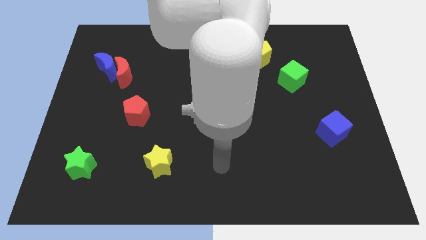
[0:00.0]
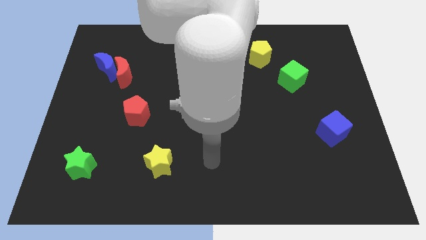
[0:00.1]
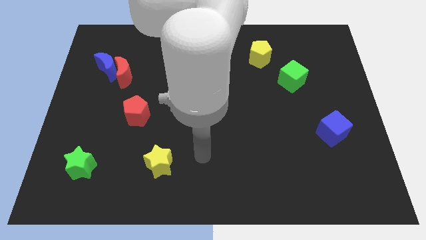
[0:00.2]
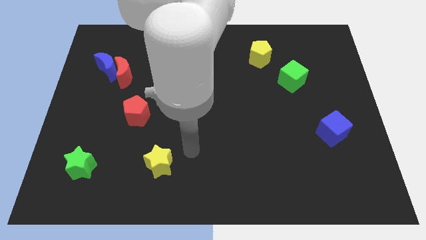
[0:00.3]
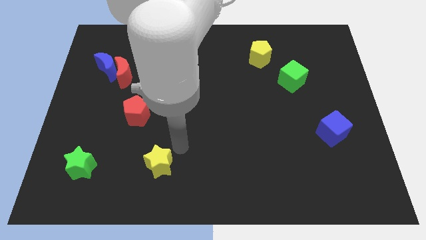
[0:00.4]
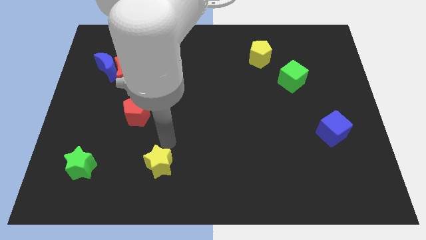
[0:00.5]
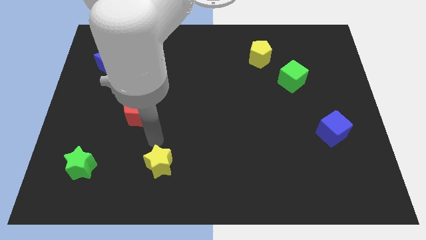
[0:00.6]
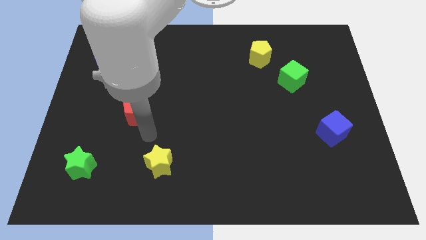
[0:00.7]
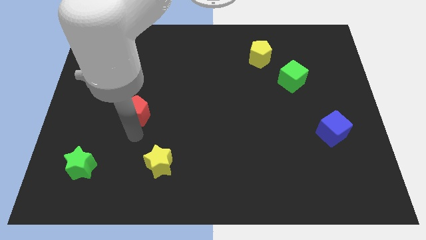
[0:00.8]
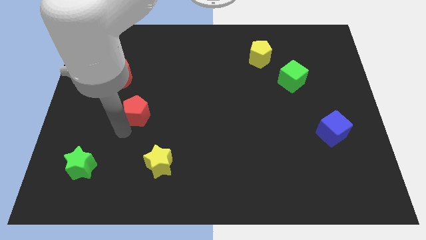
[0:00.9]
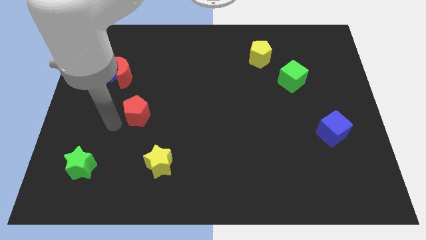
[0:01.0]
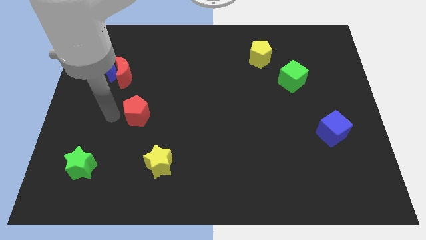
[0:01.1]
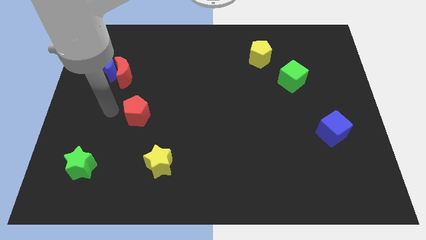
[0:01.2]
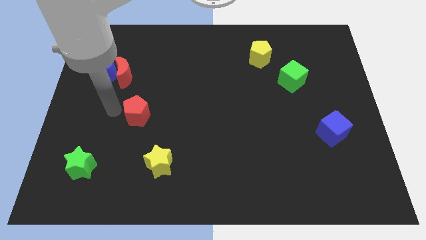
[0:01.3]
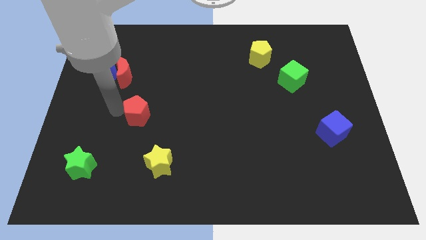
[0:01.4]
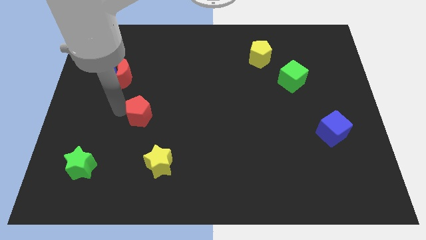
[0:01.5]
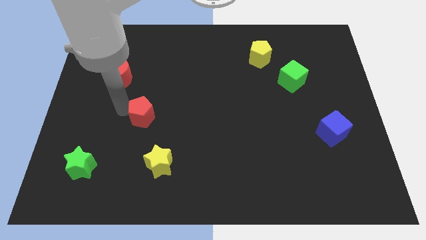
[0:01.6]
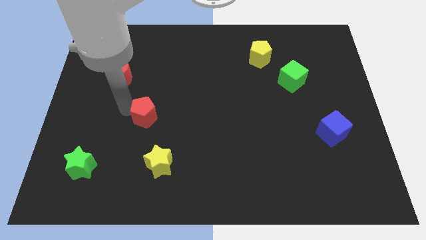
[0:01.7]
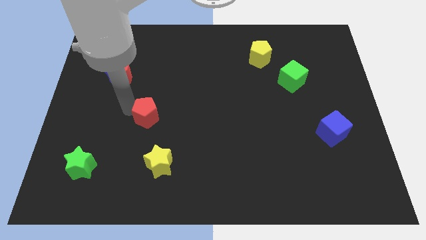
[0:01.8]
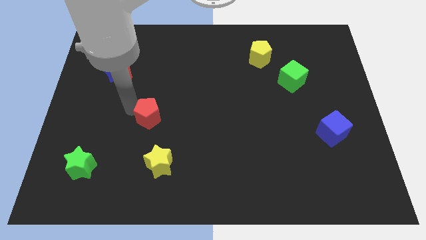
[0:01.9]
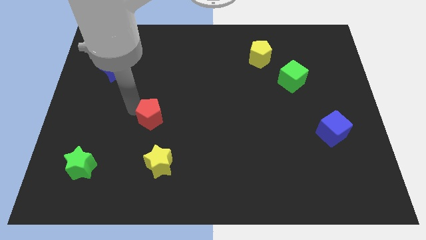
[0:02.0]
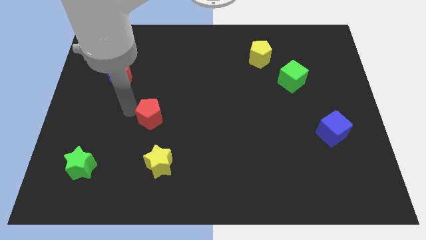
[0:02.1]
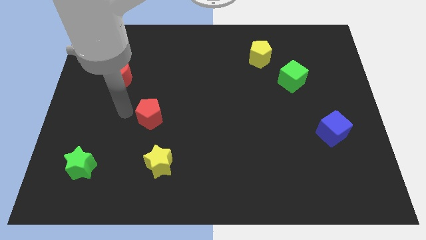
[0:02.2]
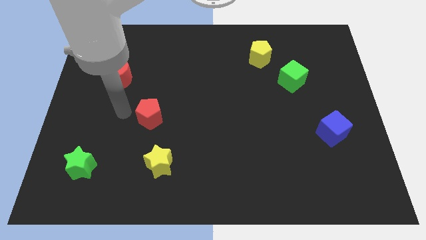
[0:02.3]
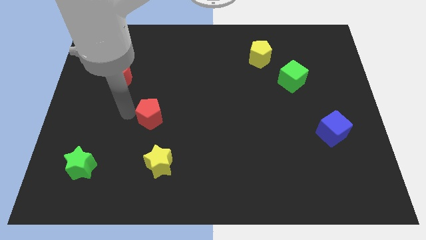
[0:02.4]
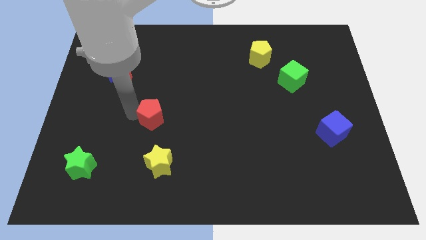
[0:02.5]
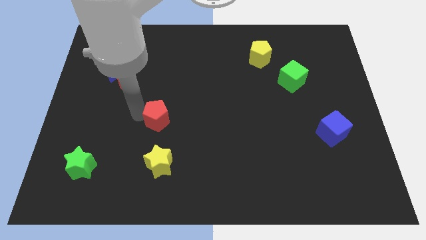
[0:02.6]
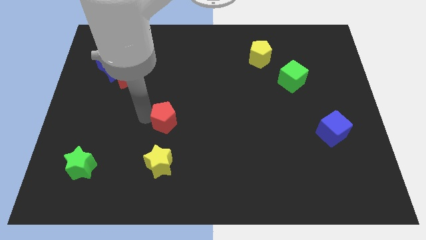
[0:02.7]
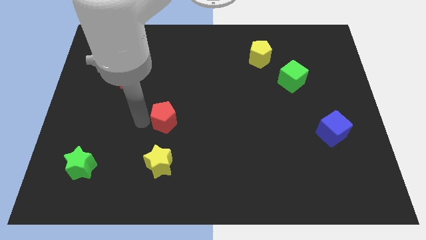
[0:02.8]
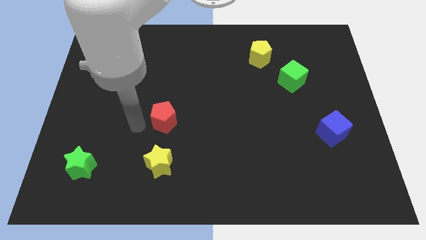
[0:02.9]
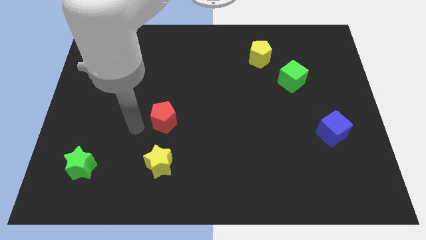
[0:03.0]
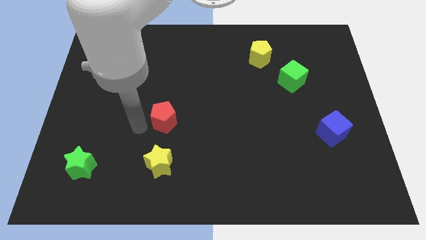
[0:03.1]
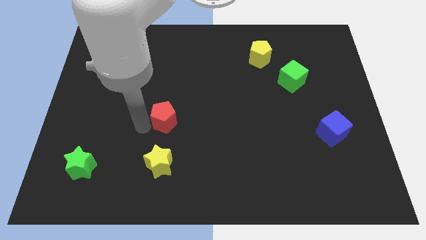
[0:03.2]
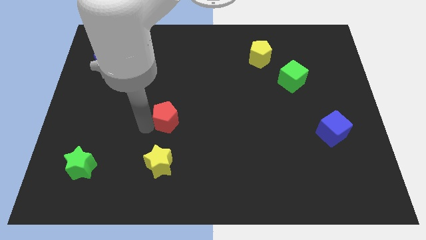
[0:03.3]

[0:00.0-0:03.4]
move the red pentagon slightly right

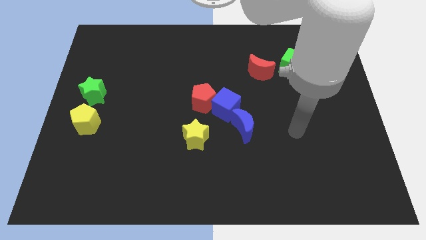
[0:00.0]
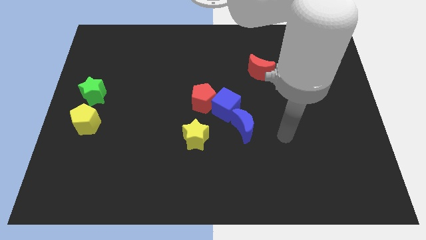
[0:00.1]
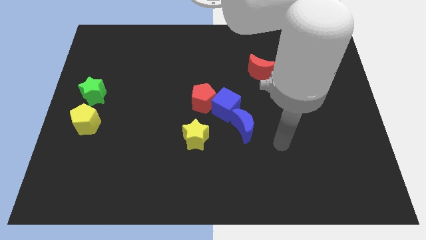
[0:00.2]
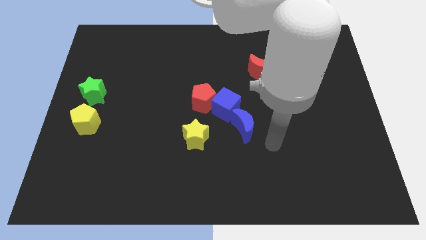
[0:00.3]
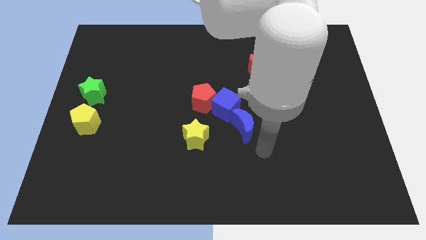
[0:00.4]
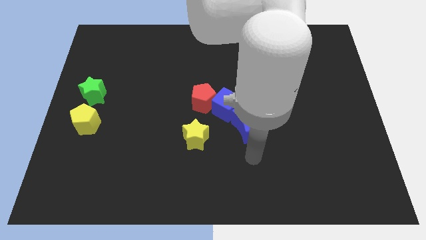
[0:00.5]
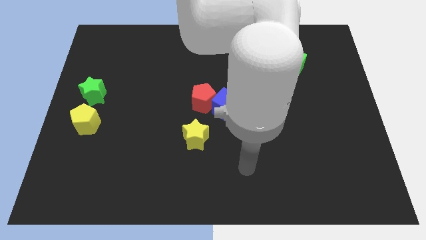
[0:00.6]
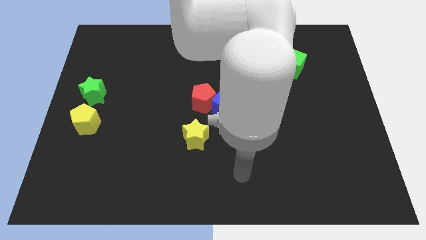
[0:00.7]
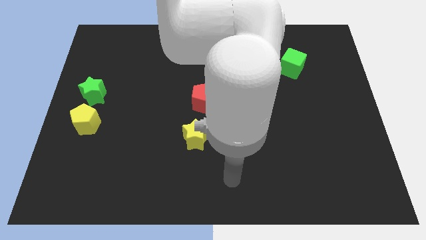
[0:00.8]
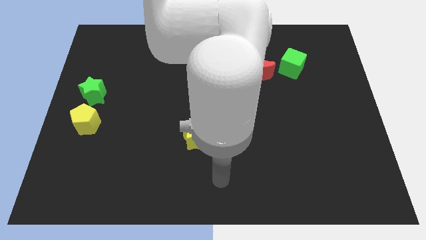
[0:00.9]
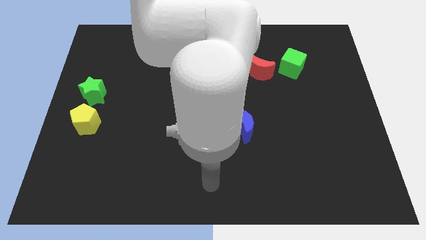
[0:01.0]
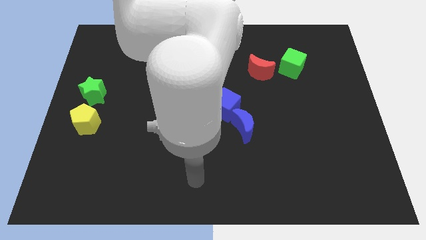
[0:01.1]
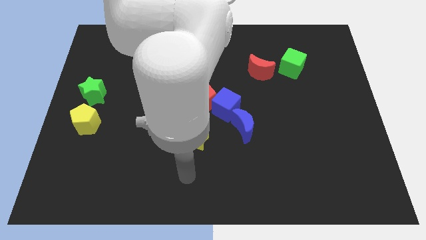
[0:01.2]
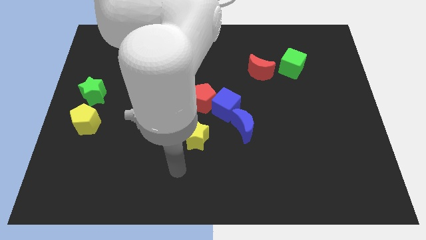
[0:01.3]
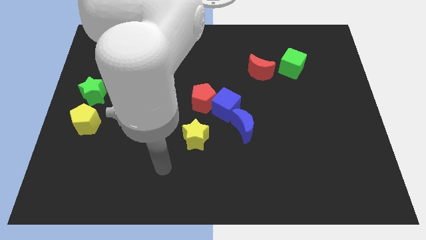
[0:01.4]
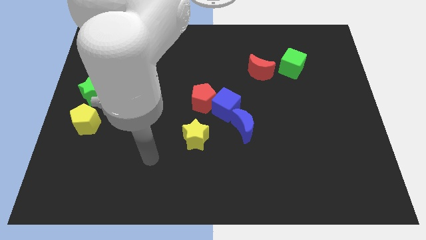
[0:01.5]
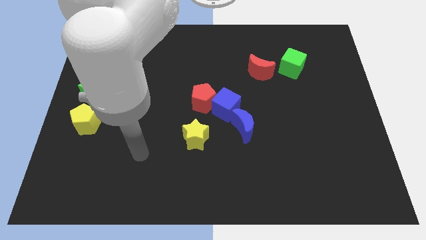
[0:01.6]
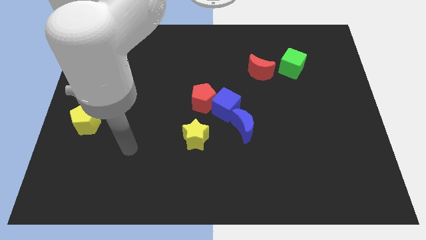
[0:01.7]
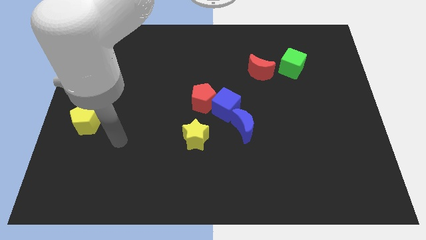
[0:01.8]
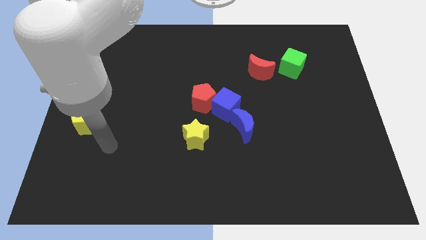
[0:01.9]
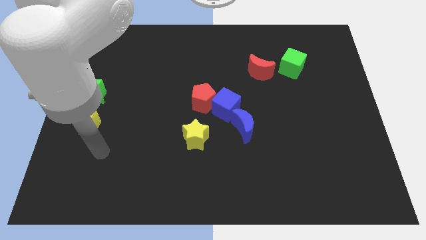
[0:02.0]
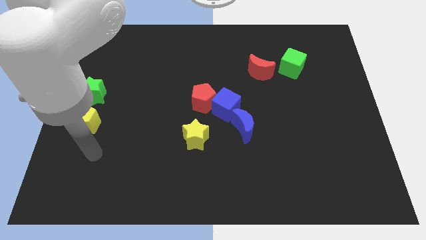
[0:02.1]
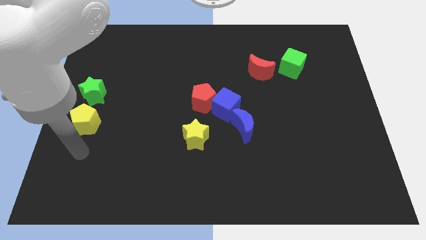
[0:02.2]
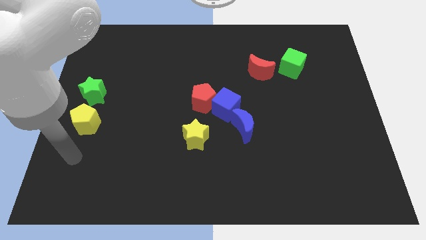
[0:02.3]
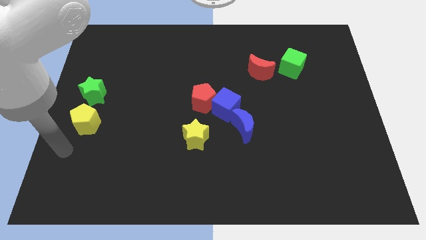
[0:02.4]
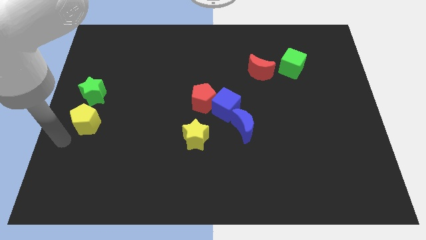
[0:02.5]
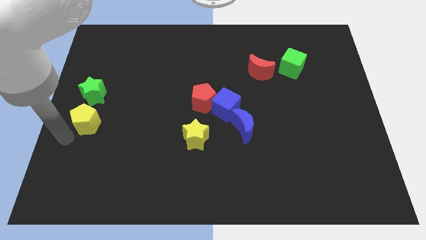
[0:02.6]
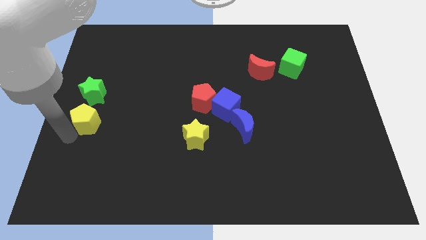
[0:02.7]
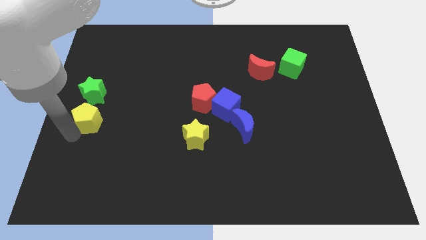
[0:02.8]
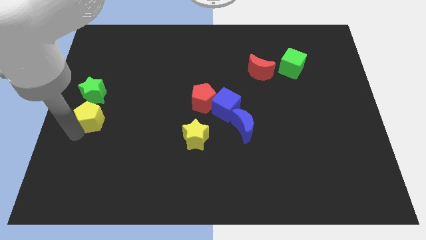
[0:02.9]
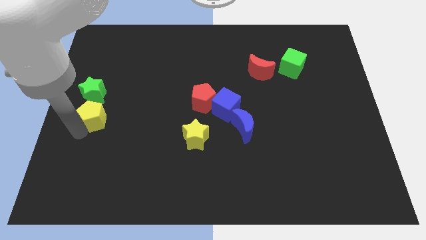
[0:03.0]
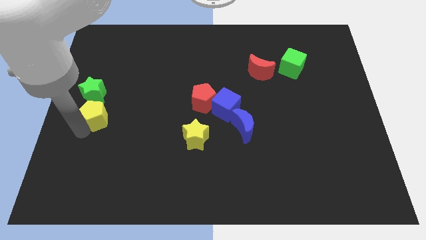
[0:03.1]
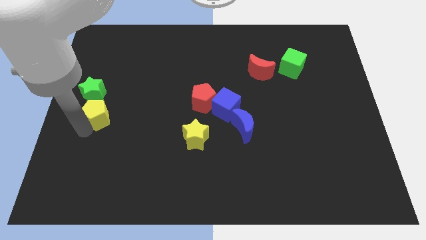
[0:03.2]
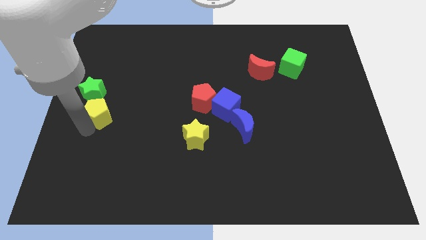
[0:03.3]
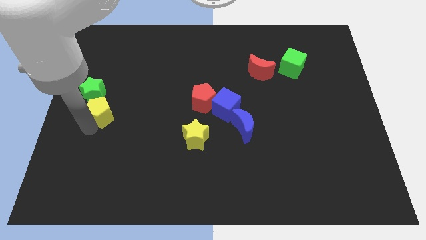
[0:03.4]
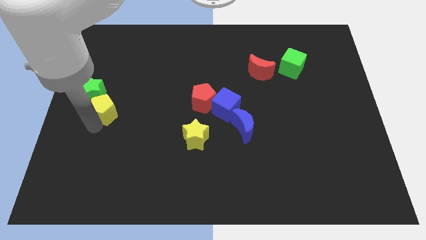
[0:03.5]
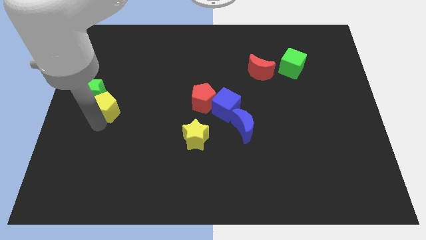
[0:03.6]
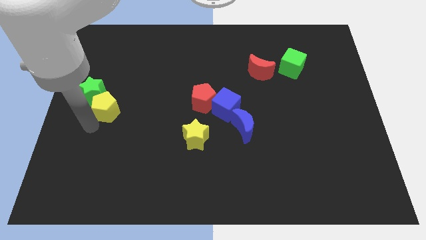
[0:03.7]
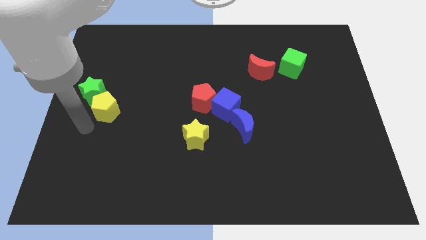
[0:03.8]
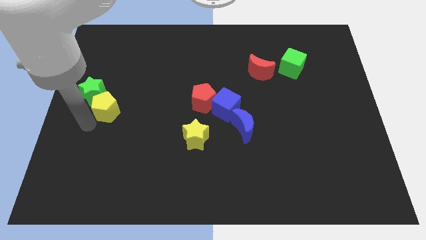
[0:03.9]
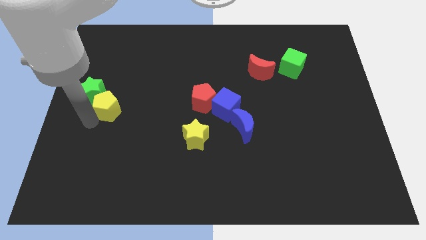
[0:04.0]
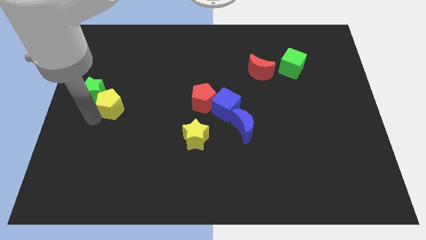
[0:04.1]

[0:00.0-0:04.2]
push the yellow pentagon slightly up and to the right diagonally

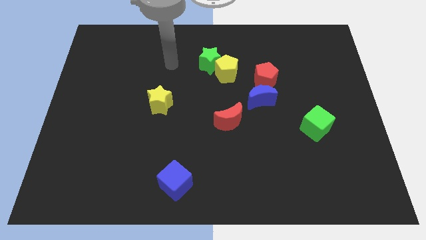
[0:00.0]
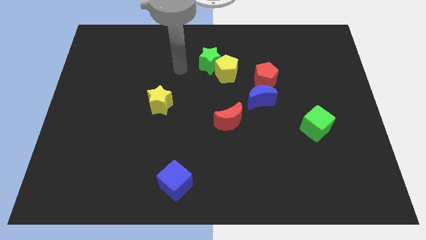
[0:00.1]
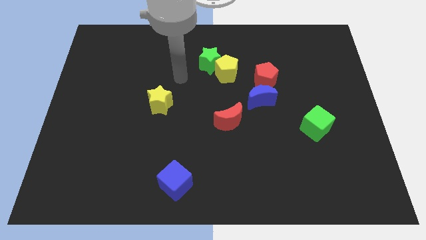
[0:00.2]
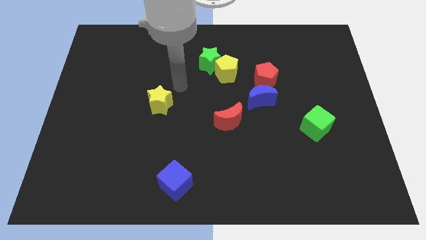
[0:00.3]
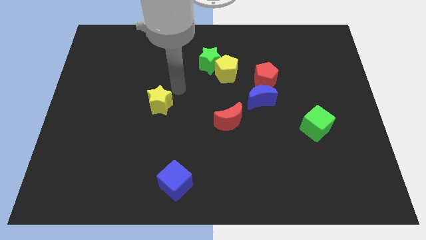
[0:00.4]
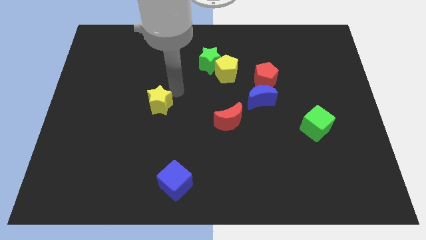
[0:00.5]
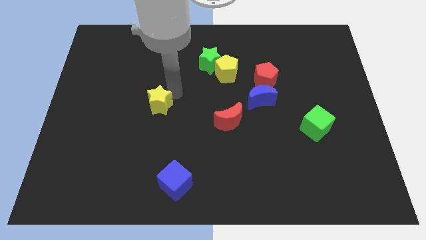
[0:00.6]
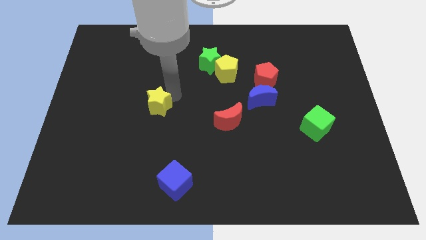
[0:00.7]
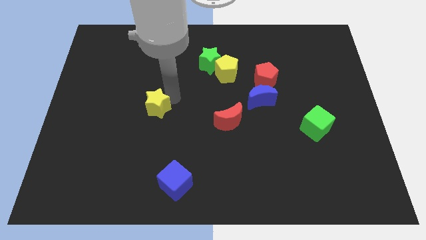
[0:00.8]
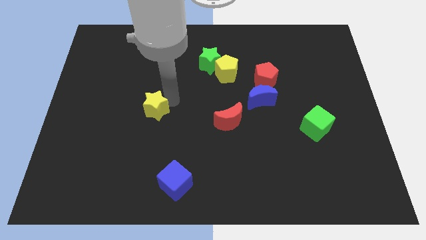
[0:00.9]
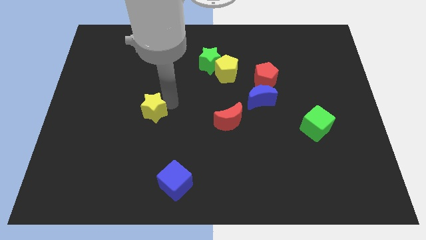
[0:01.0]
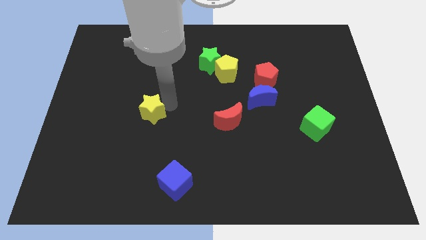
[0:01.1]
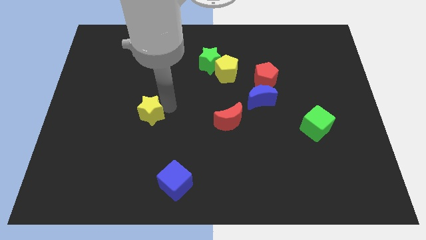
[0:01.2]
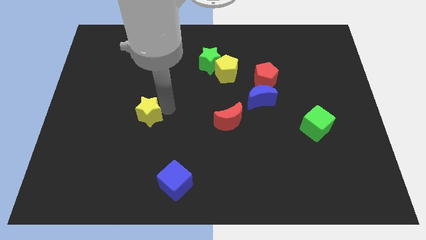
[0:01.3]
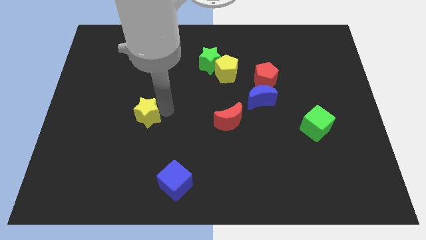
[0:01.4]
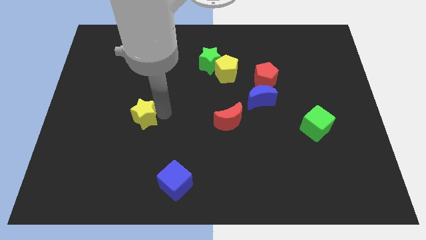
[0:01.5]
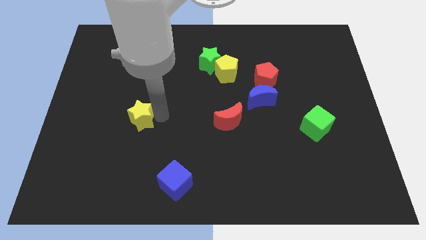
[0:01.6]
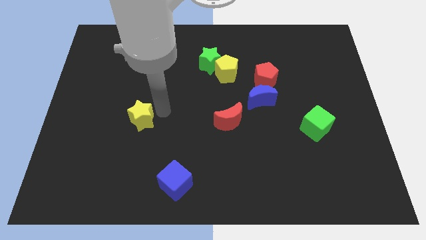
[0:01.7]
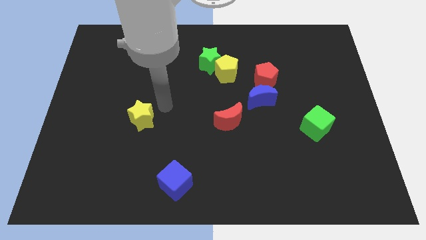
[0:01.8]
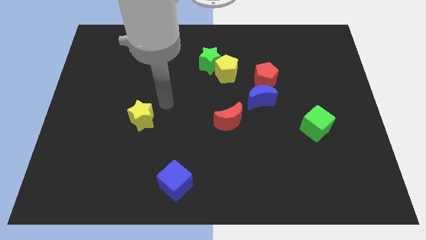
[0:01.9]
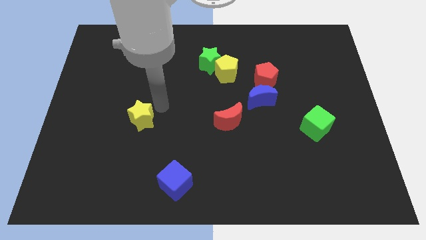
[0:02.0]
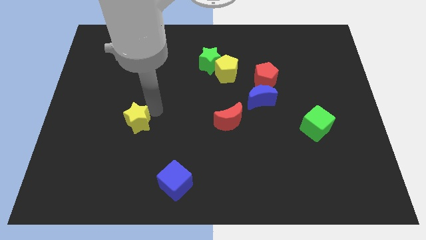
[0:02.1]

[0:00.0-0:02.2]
slightly push the yellow star downwards and left
